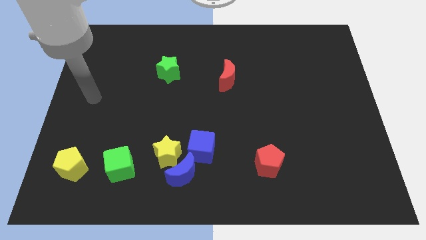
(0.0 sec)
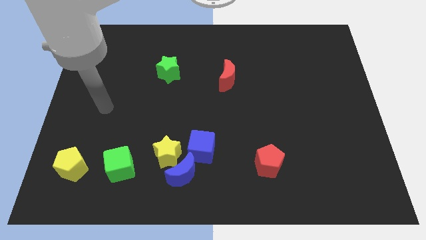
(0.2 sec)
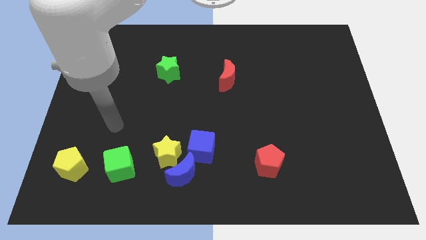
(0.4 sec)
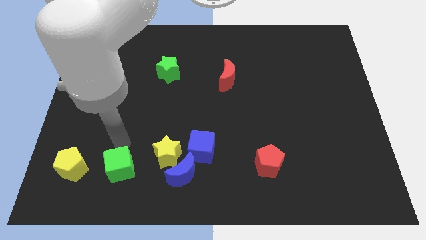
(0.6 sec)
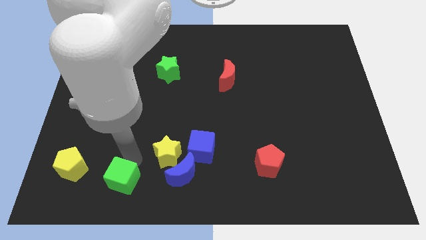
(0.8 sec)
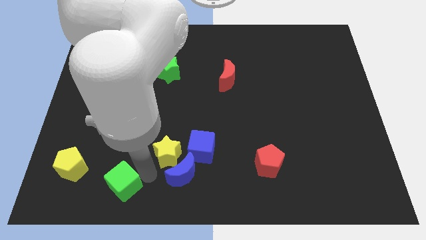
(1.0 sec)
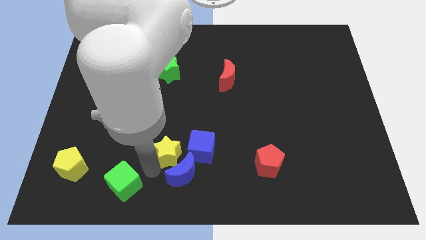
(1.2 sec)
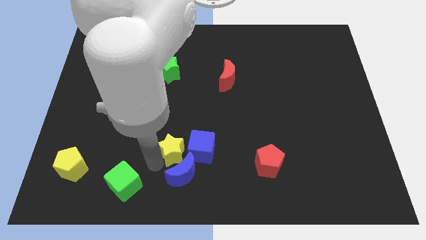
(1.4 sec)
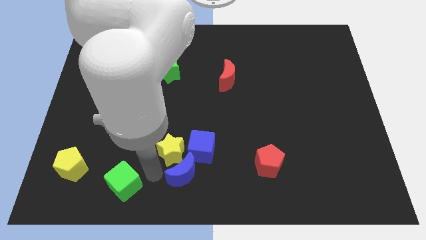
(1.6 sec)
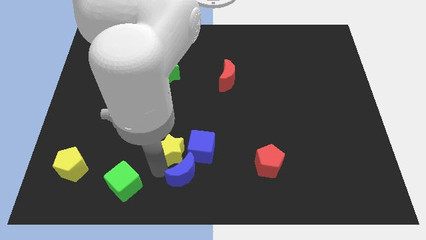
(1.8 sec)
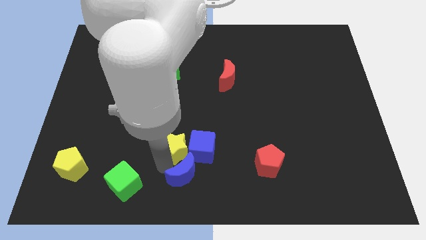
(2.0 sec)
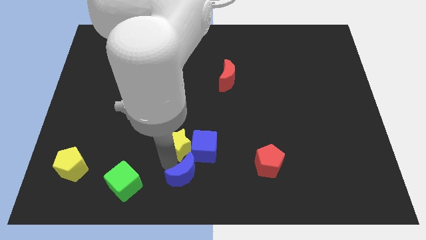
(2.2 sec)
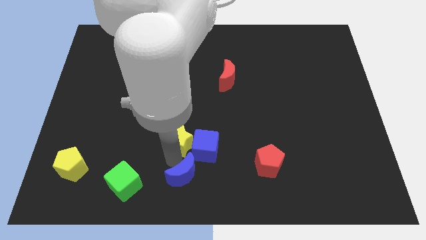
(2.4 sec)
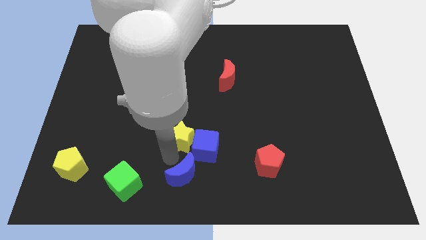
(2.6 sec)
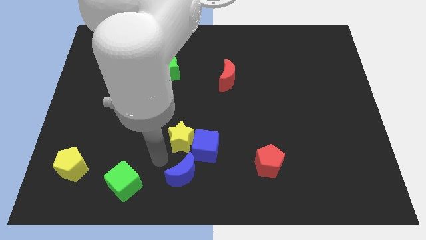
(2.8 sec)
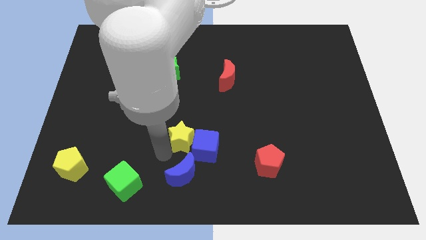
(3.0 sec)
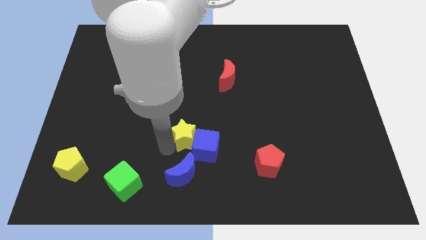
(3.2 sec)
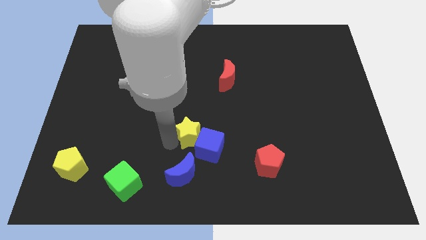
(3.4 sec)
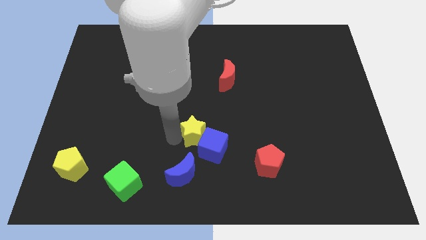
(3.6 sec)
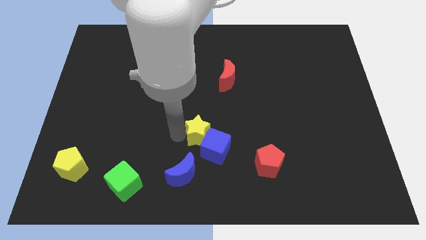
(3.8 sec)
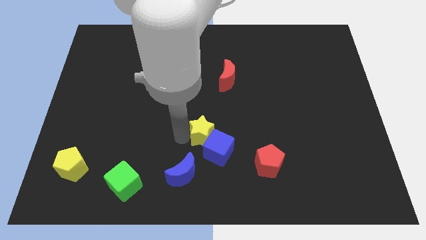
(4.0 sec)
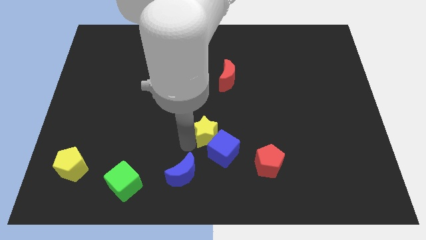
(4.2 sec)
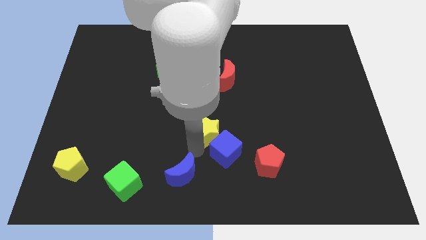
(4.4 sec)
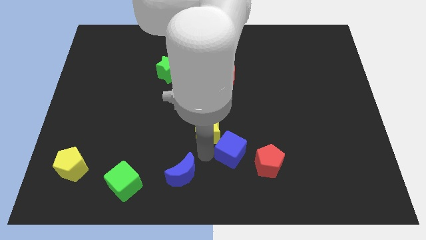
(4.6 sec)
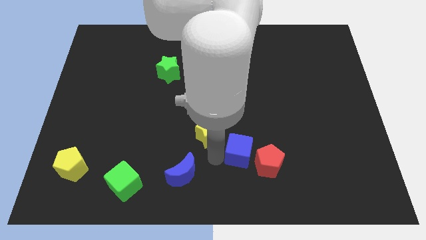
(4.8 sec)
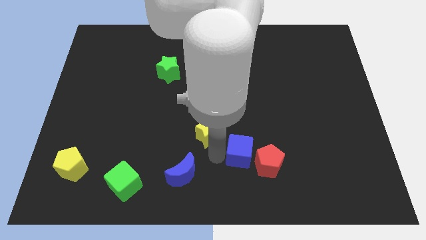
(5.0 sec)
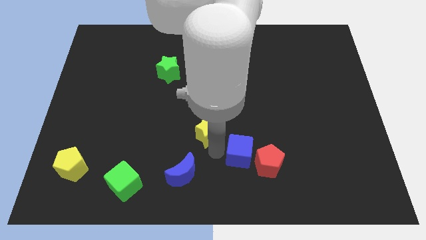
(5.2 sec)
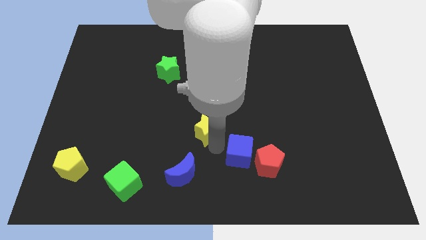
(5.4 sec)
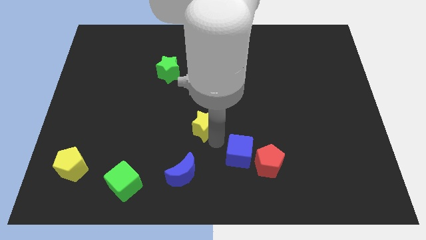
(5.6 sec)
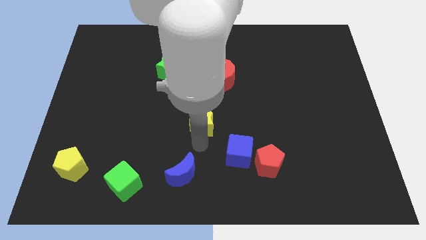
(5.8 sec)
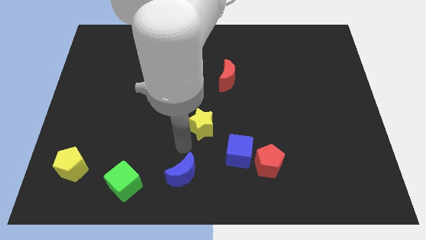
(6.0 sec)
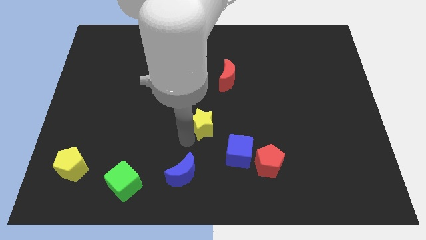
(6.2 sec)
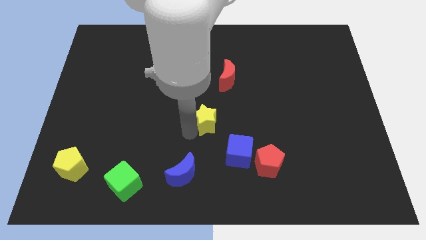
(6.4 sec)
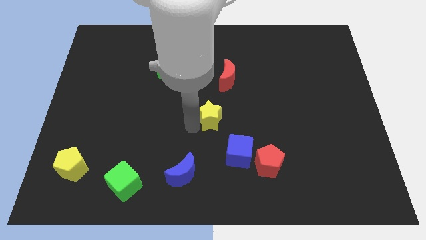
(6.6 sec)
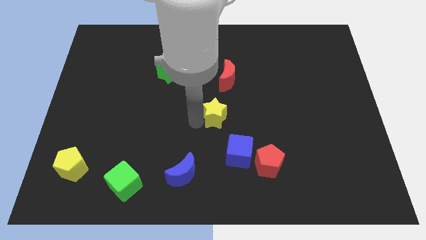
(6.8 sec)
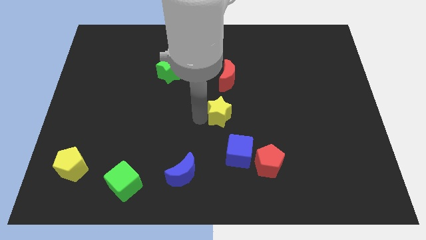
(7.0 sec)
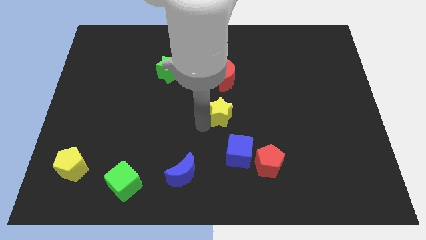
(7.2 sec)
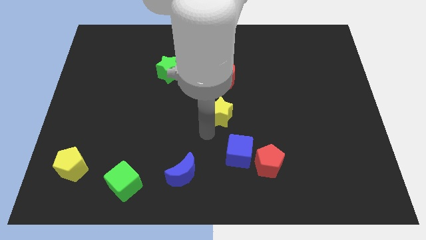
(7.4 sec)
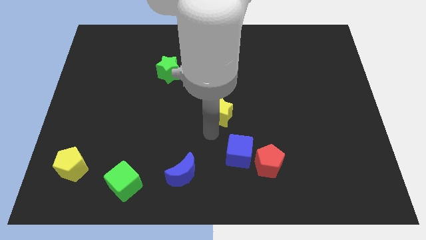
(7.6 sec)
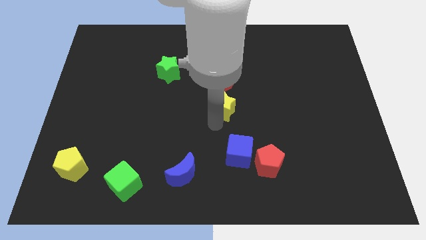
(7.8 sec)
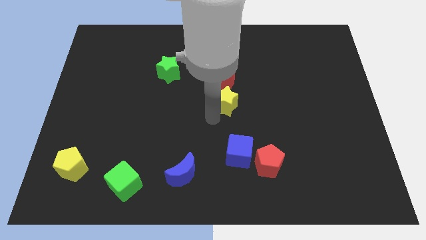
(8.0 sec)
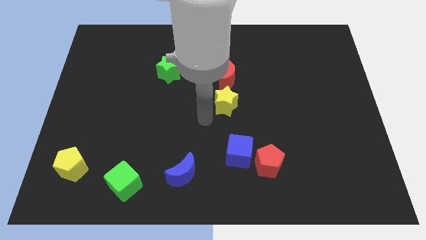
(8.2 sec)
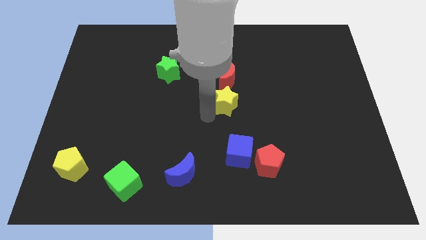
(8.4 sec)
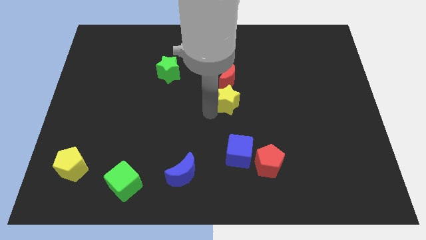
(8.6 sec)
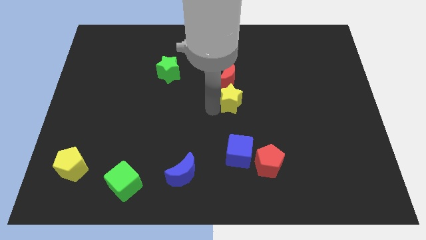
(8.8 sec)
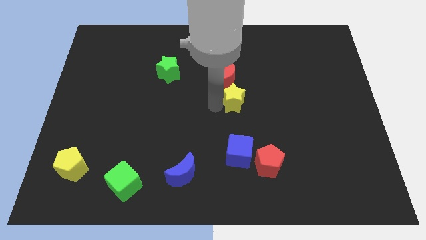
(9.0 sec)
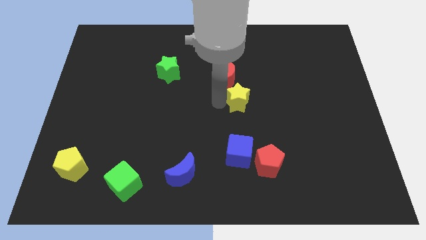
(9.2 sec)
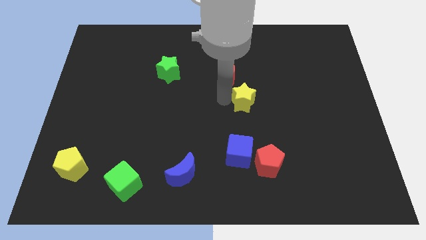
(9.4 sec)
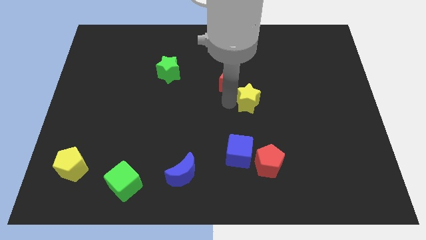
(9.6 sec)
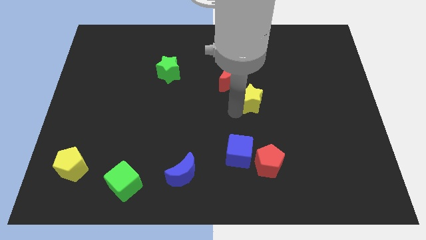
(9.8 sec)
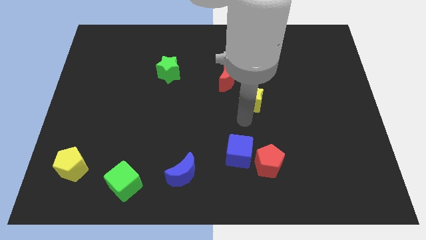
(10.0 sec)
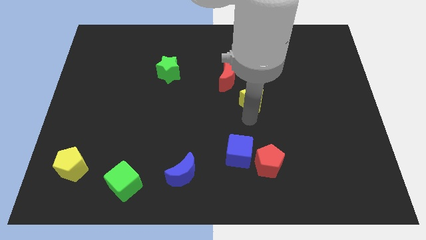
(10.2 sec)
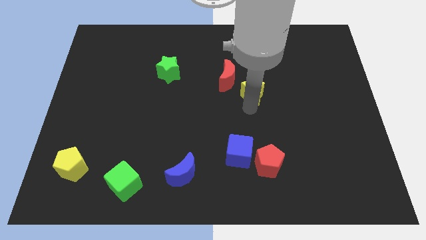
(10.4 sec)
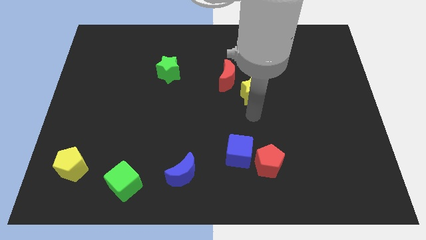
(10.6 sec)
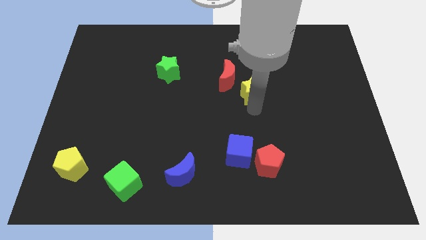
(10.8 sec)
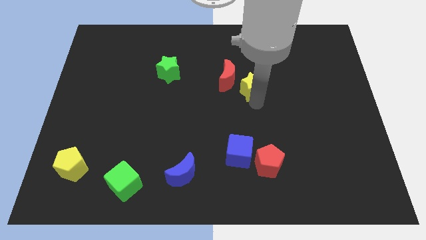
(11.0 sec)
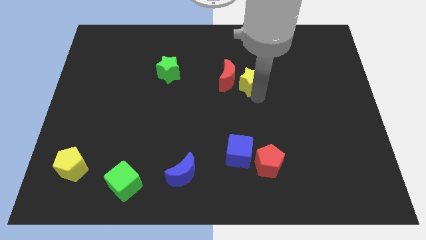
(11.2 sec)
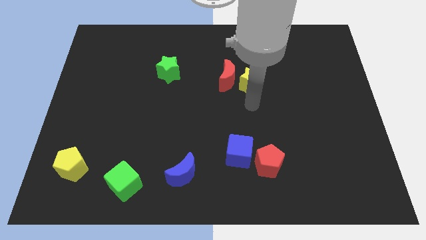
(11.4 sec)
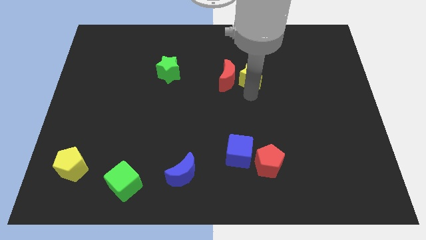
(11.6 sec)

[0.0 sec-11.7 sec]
slide the yellow star to the top right of the red moon
